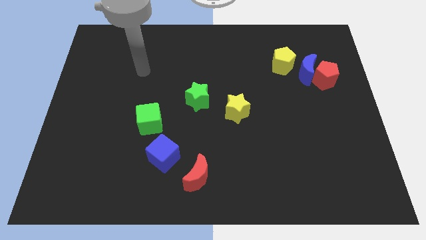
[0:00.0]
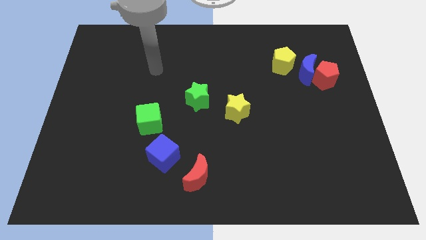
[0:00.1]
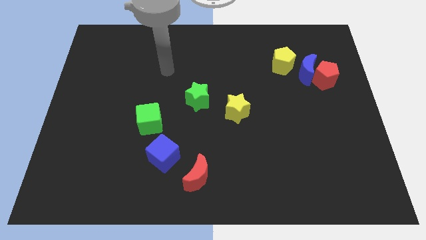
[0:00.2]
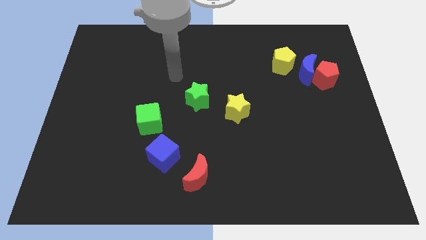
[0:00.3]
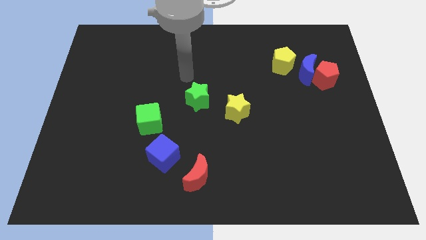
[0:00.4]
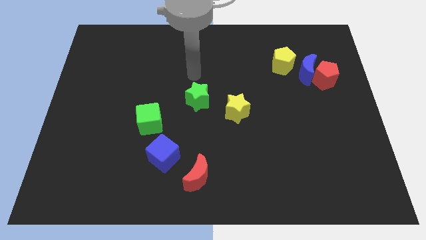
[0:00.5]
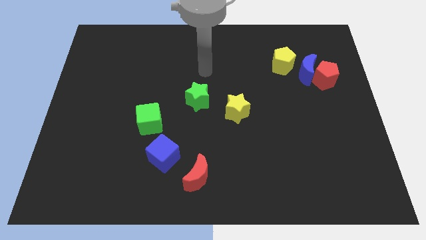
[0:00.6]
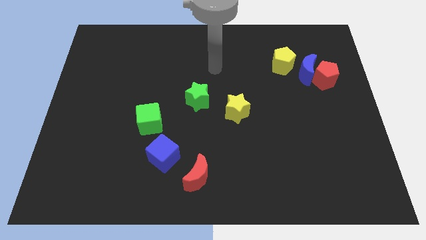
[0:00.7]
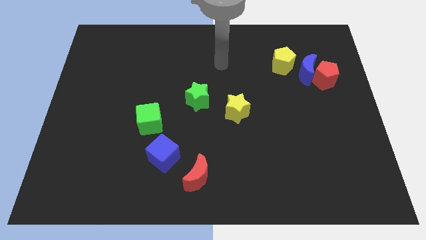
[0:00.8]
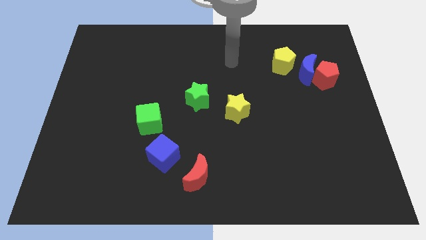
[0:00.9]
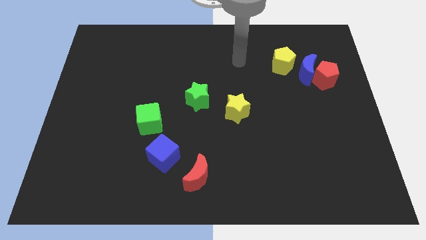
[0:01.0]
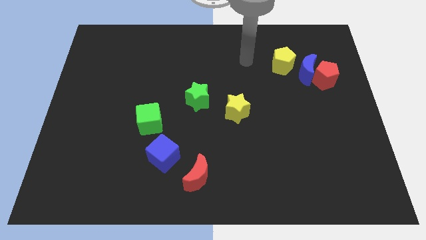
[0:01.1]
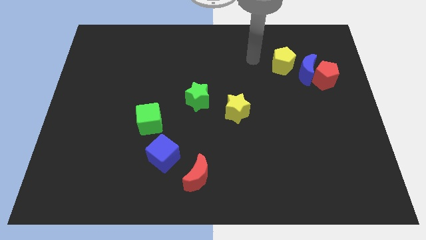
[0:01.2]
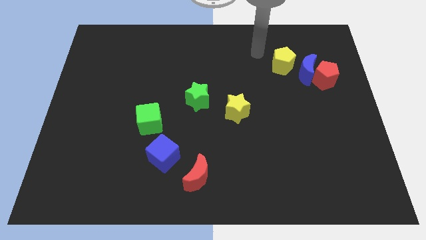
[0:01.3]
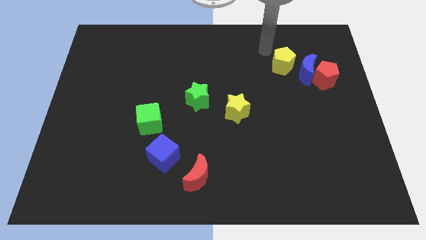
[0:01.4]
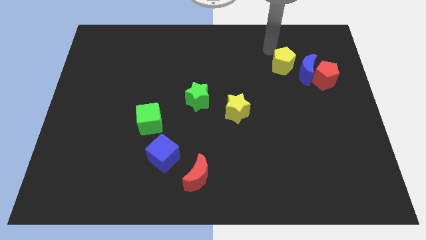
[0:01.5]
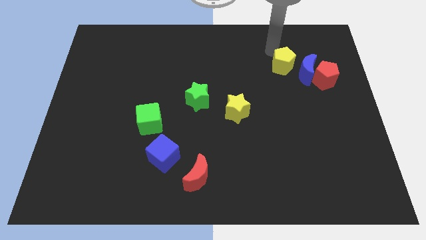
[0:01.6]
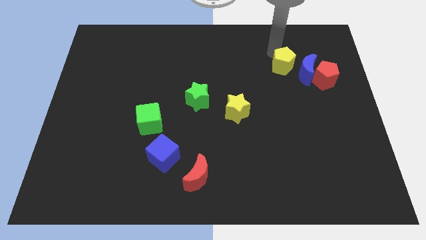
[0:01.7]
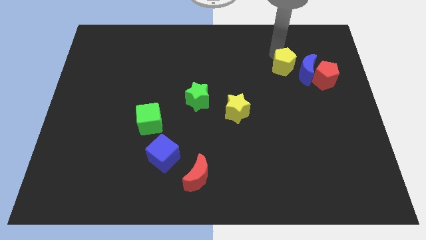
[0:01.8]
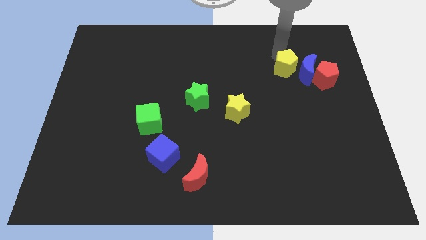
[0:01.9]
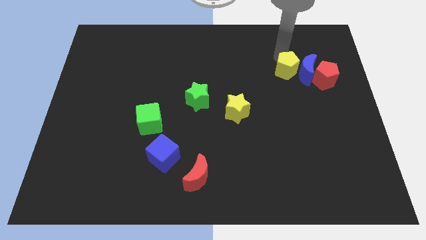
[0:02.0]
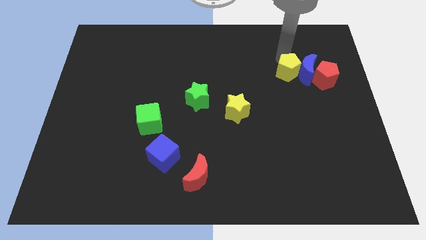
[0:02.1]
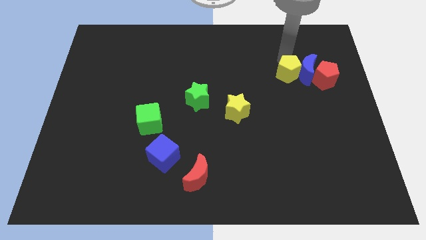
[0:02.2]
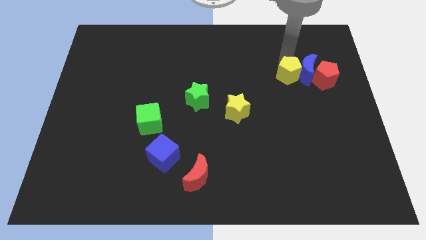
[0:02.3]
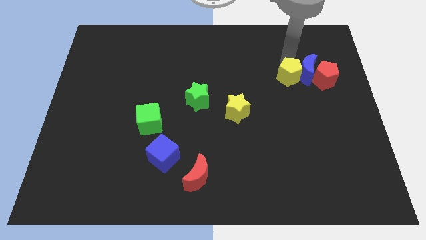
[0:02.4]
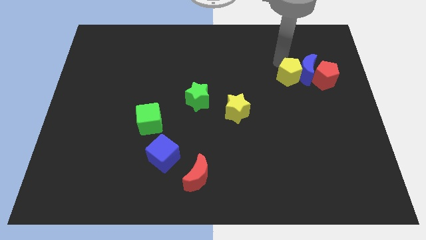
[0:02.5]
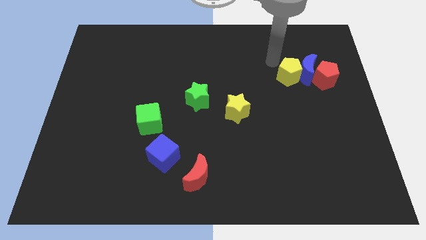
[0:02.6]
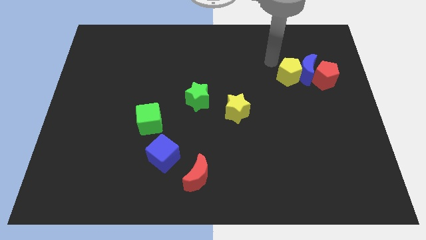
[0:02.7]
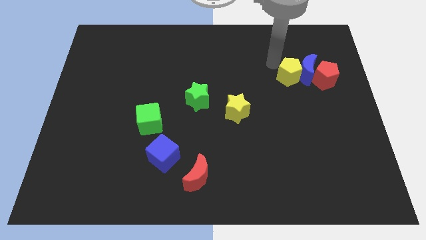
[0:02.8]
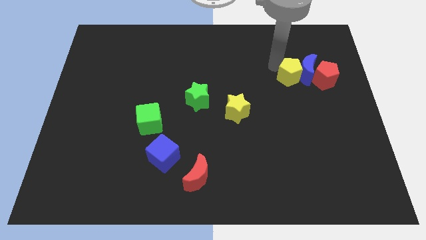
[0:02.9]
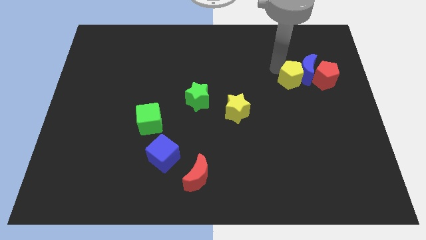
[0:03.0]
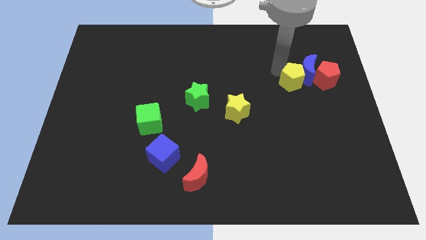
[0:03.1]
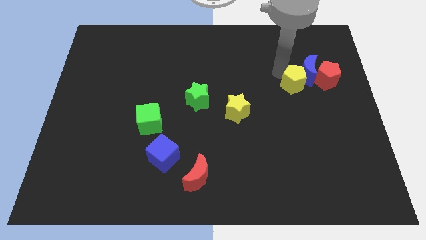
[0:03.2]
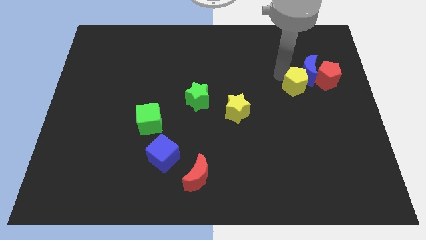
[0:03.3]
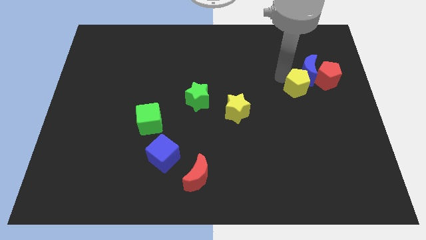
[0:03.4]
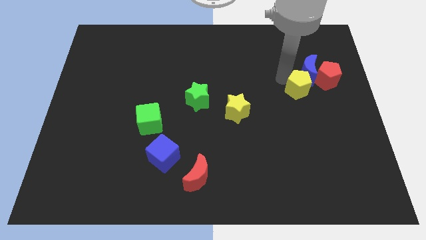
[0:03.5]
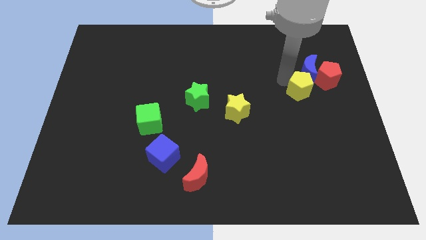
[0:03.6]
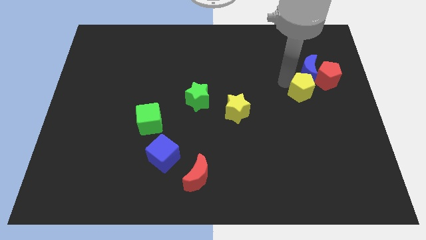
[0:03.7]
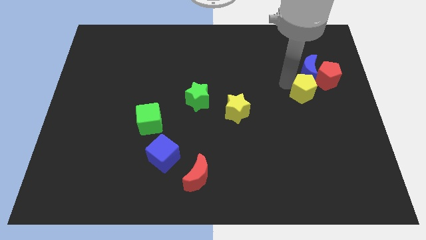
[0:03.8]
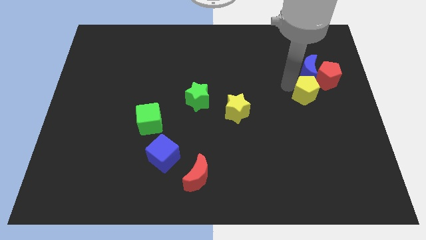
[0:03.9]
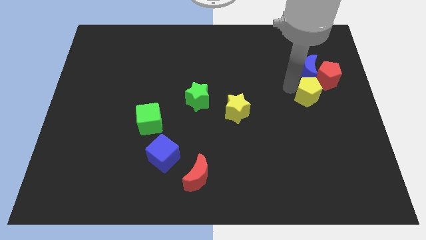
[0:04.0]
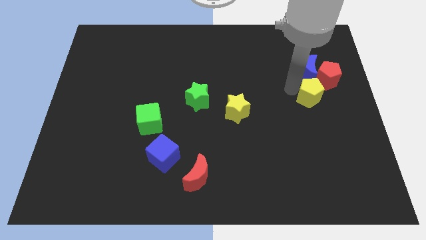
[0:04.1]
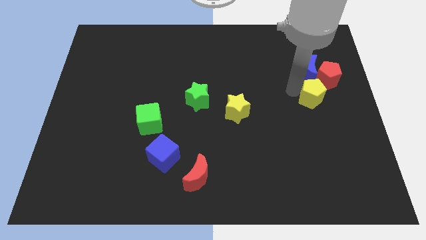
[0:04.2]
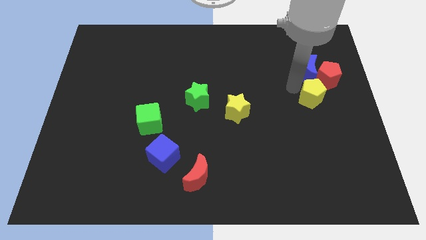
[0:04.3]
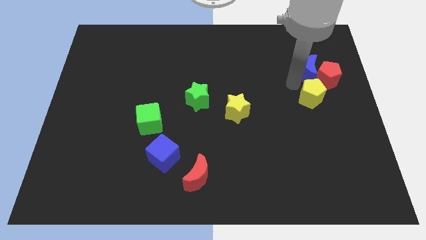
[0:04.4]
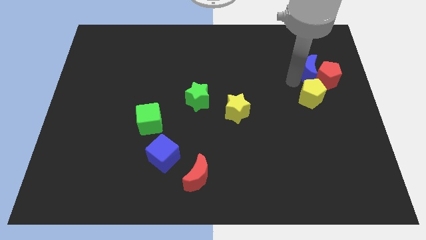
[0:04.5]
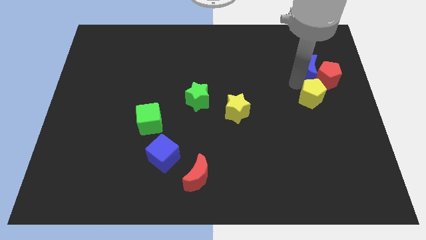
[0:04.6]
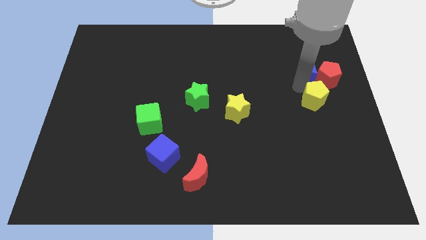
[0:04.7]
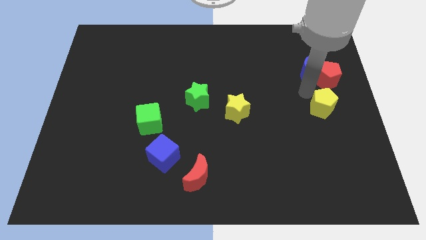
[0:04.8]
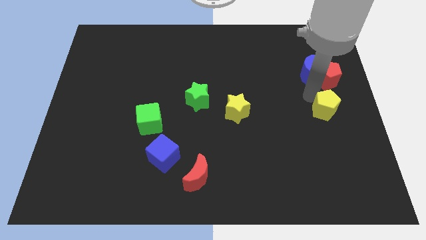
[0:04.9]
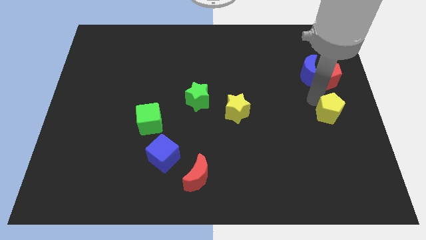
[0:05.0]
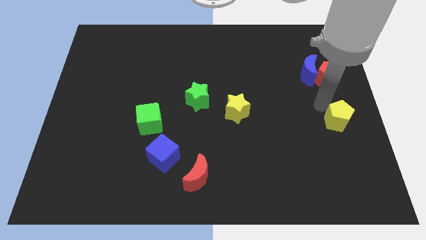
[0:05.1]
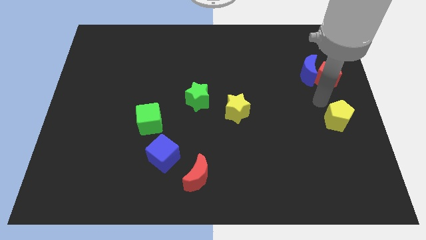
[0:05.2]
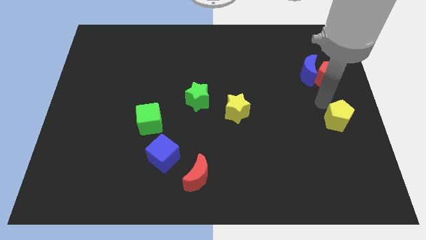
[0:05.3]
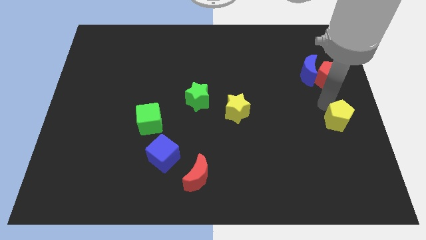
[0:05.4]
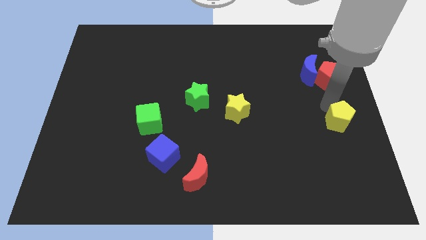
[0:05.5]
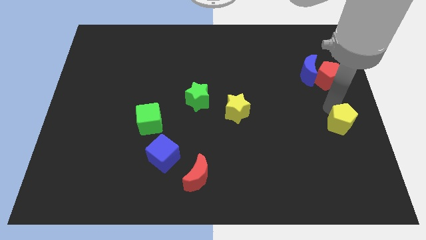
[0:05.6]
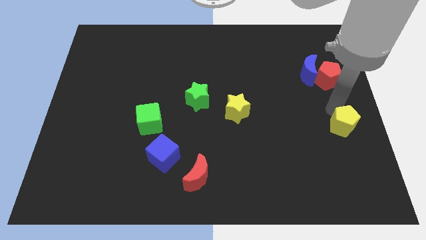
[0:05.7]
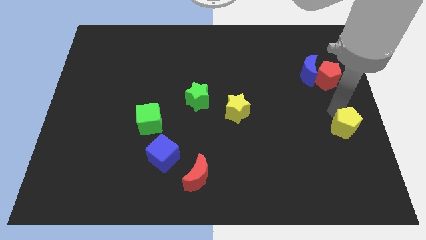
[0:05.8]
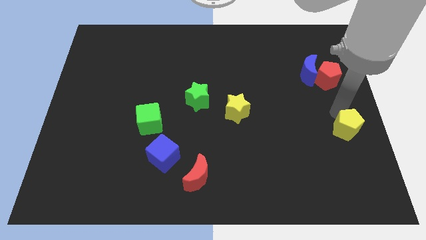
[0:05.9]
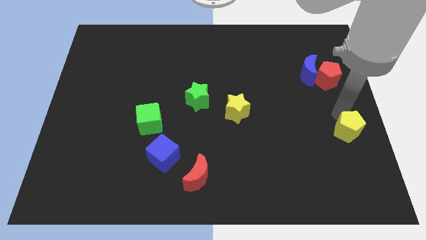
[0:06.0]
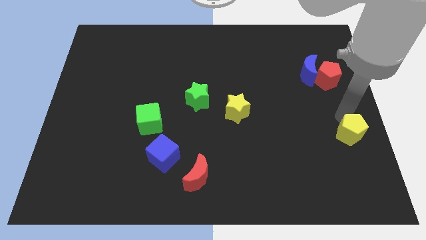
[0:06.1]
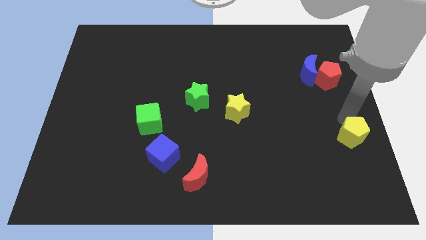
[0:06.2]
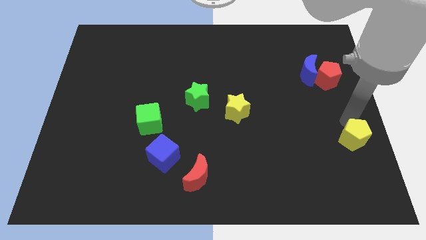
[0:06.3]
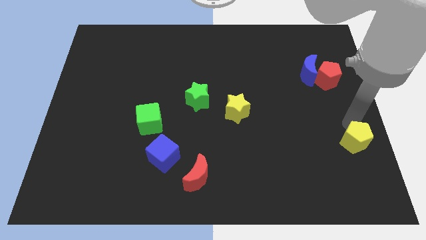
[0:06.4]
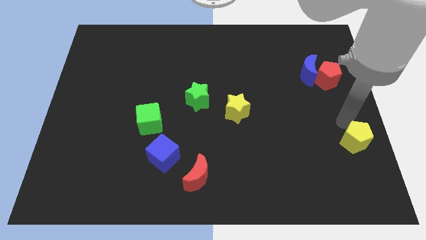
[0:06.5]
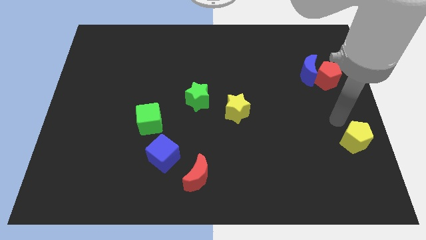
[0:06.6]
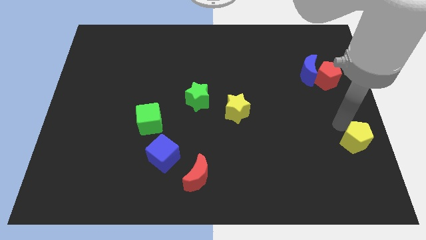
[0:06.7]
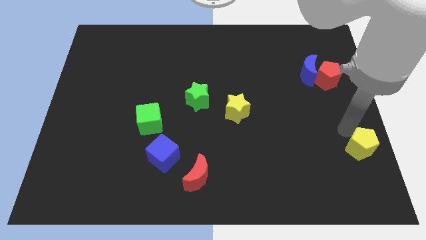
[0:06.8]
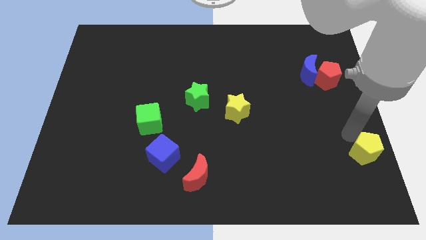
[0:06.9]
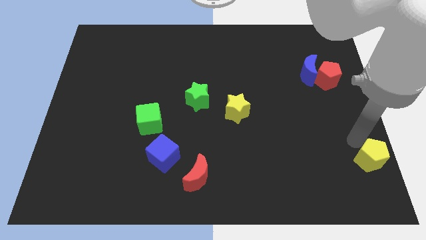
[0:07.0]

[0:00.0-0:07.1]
push the yellow pentagon to the bottom right corner
